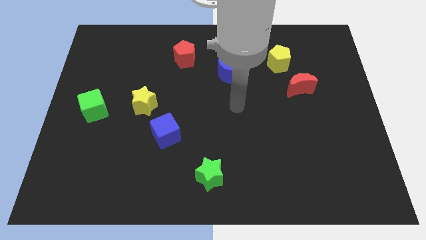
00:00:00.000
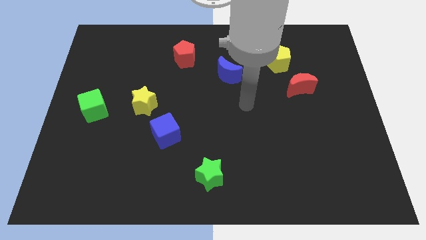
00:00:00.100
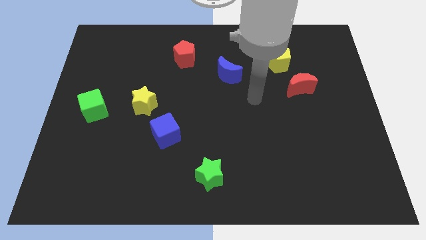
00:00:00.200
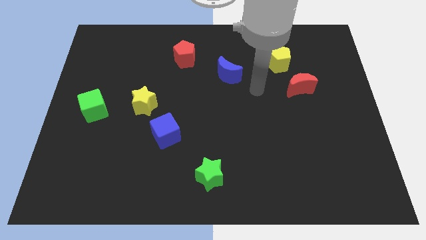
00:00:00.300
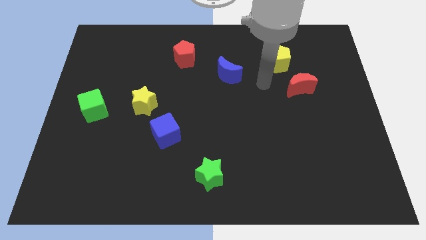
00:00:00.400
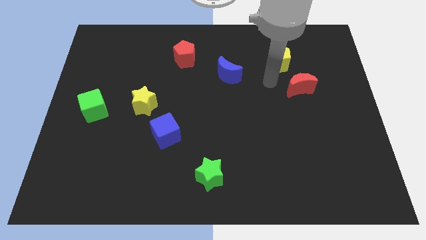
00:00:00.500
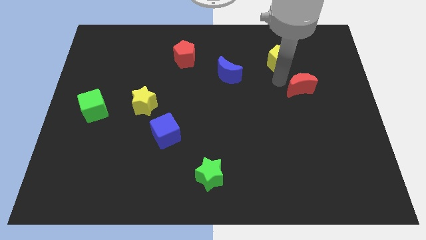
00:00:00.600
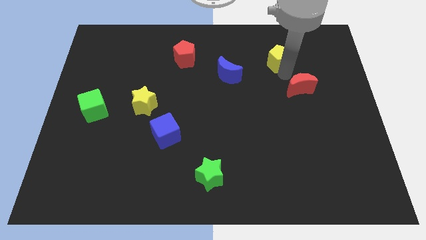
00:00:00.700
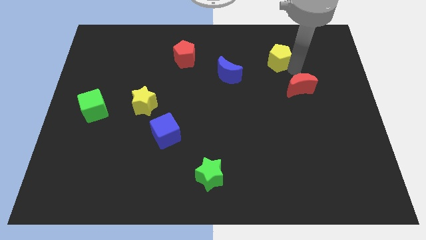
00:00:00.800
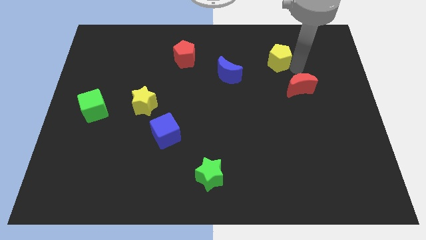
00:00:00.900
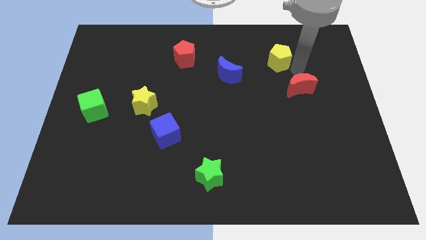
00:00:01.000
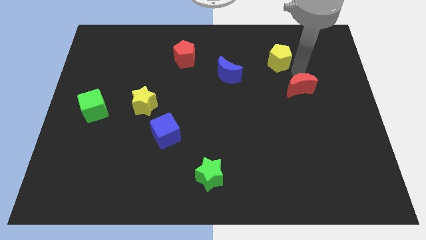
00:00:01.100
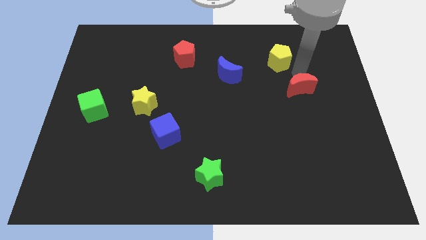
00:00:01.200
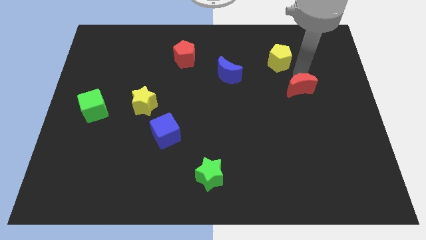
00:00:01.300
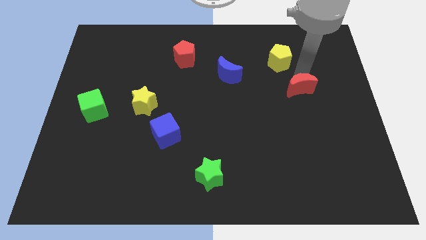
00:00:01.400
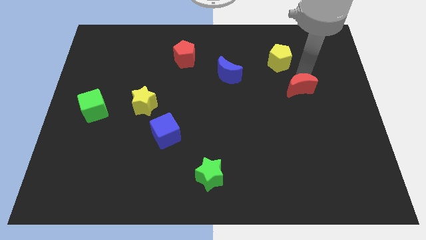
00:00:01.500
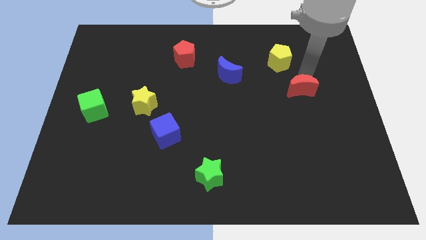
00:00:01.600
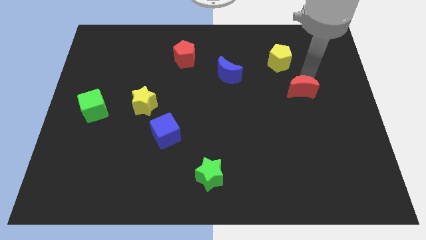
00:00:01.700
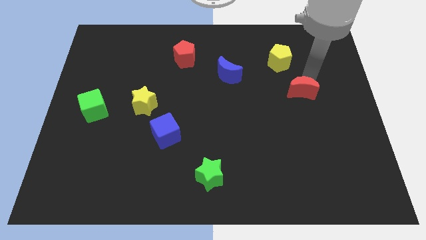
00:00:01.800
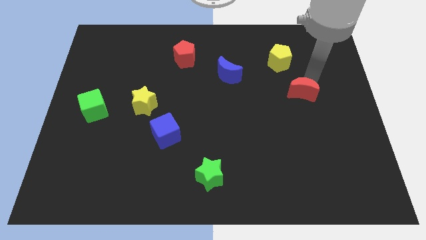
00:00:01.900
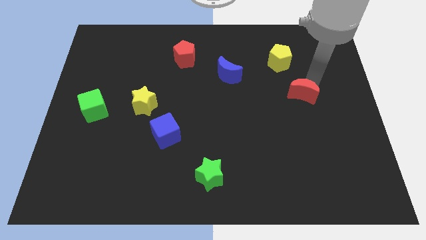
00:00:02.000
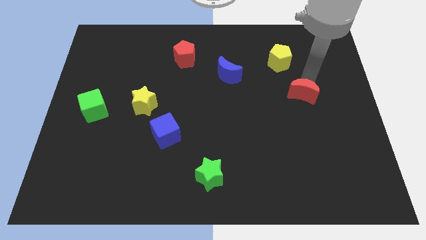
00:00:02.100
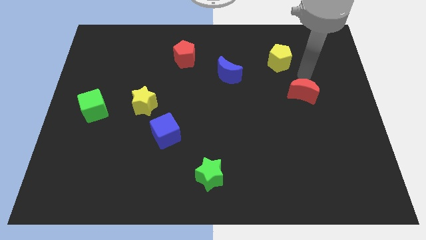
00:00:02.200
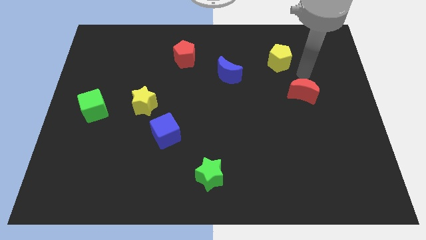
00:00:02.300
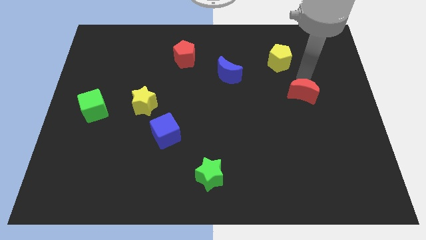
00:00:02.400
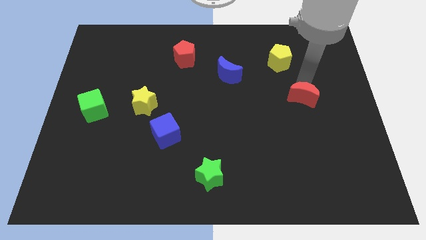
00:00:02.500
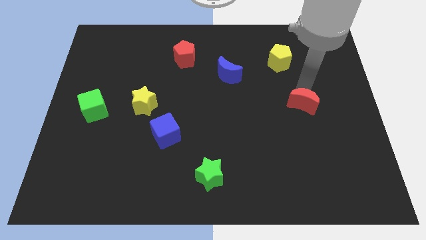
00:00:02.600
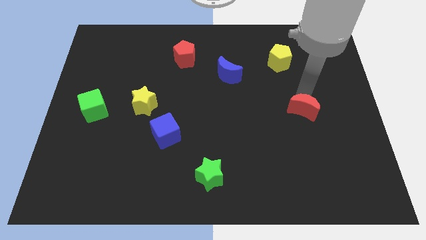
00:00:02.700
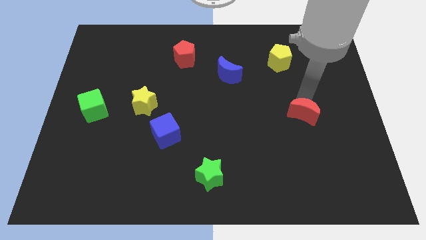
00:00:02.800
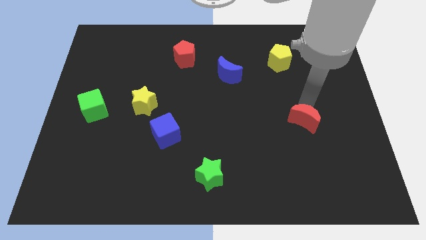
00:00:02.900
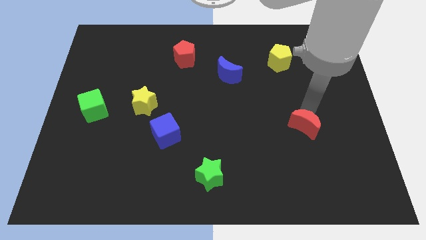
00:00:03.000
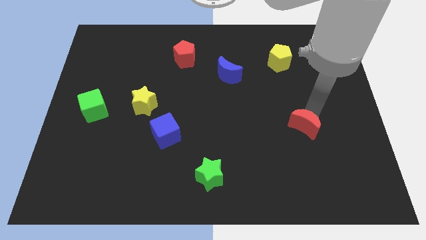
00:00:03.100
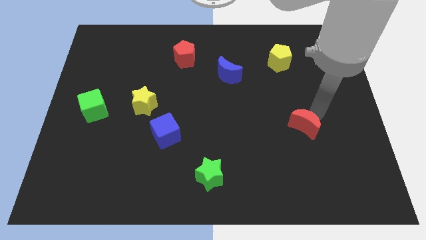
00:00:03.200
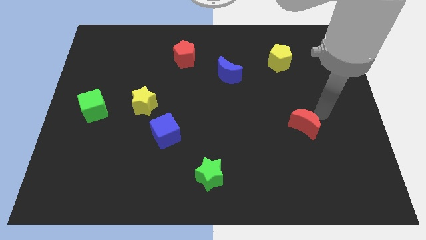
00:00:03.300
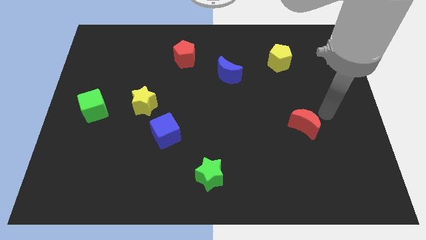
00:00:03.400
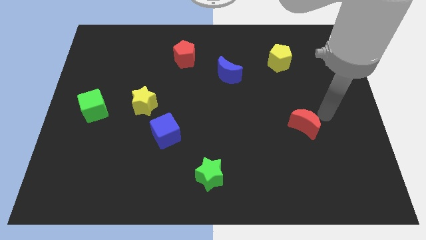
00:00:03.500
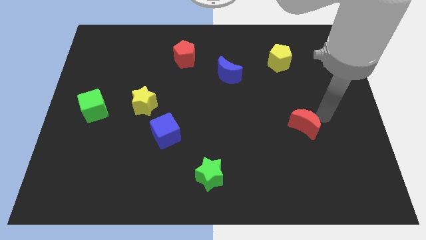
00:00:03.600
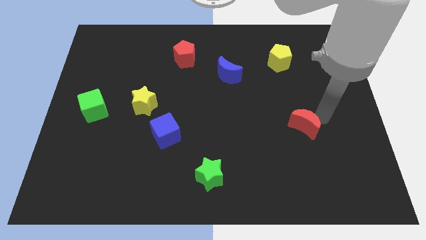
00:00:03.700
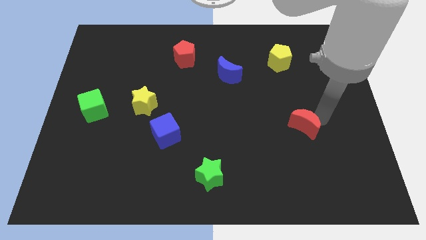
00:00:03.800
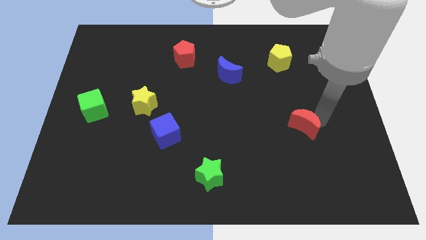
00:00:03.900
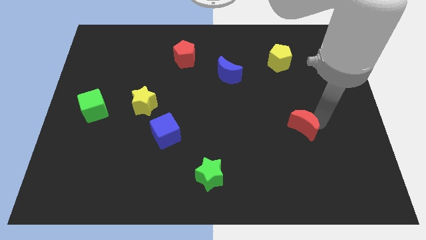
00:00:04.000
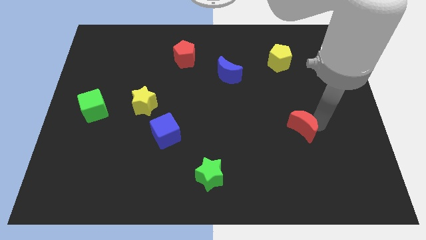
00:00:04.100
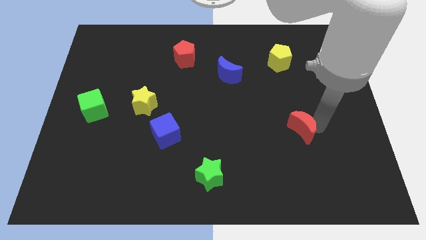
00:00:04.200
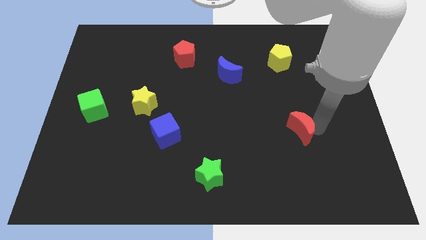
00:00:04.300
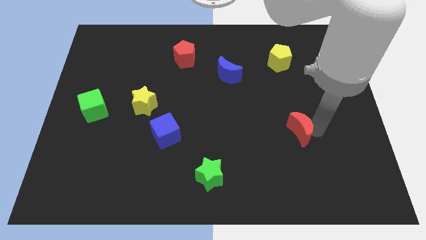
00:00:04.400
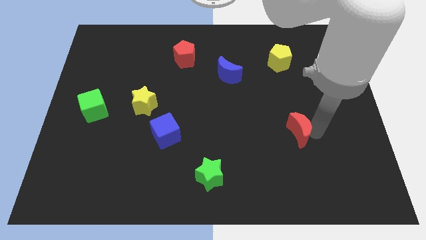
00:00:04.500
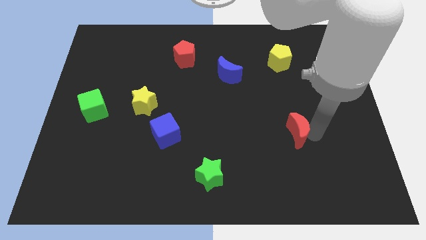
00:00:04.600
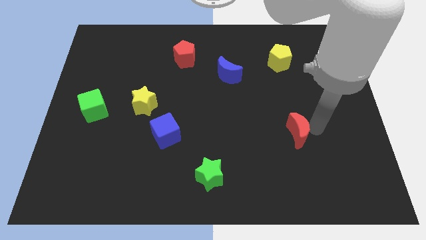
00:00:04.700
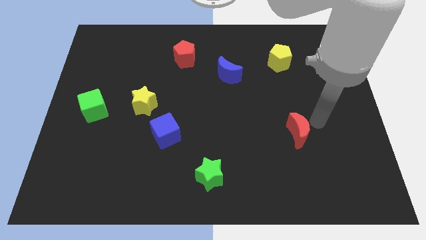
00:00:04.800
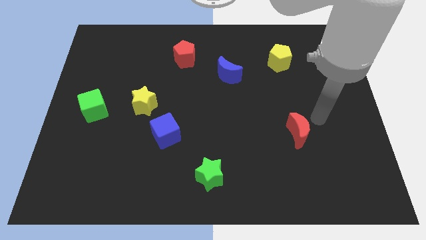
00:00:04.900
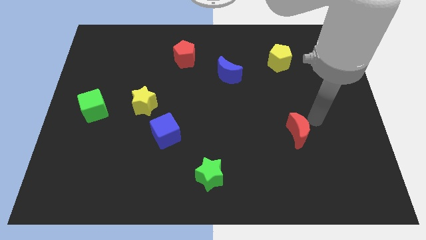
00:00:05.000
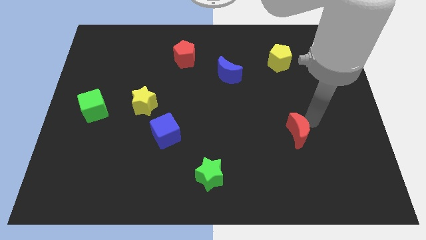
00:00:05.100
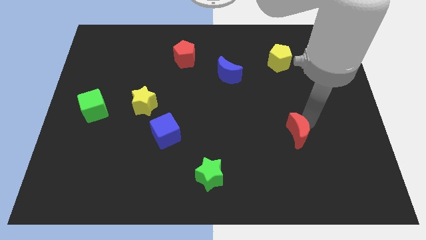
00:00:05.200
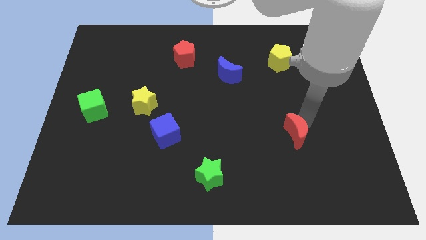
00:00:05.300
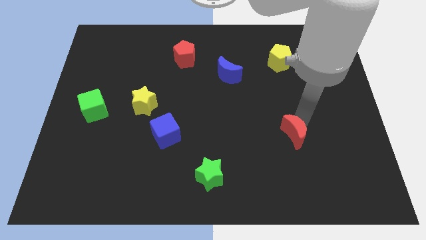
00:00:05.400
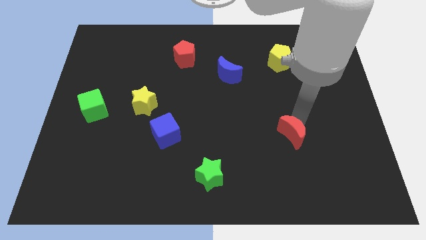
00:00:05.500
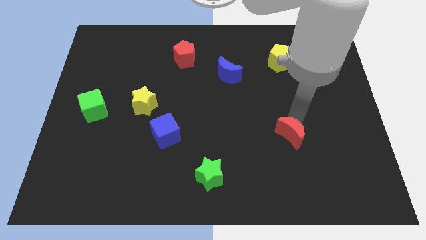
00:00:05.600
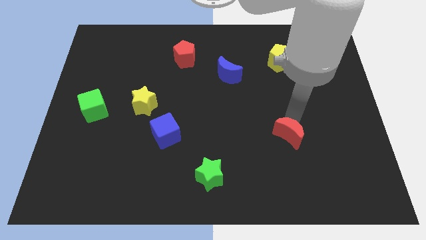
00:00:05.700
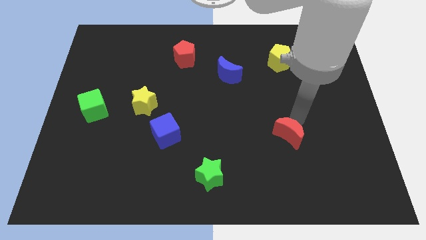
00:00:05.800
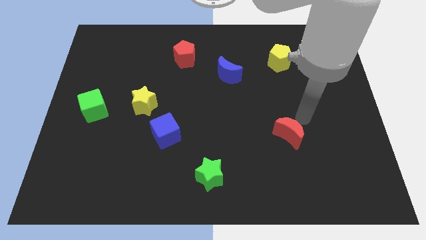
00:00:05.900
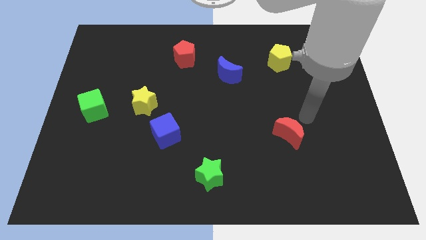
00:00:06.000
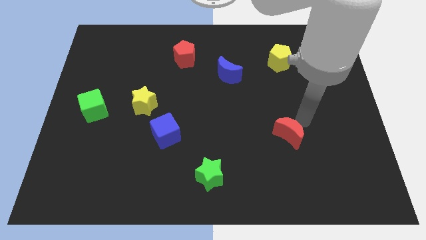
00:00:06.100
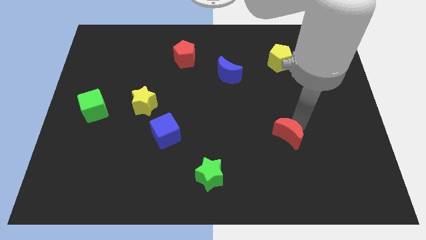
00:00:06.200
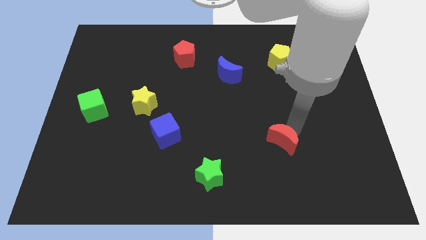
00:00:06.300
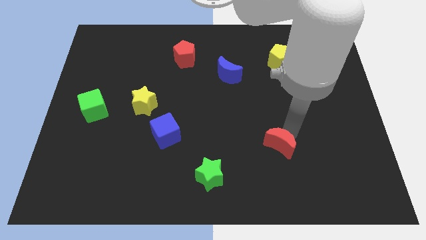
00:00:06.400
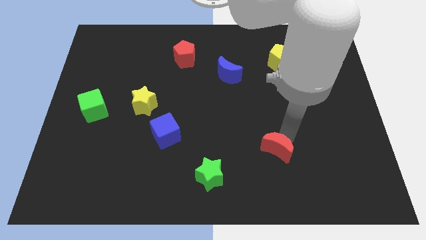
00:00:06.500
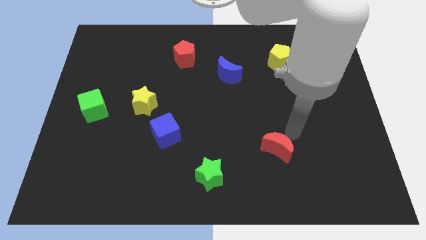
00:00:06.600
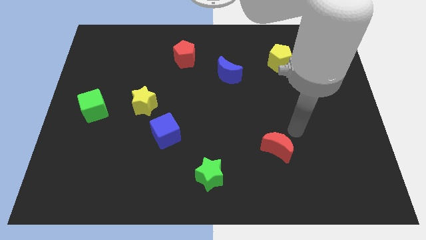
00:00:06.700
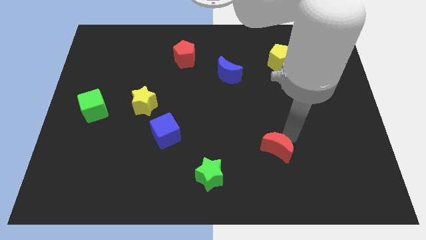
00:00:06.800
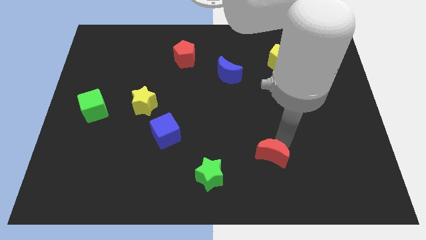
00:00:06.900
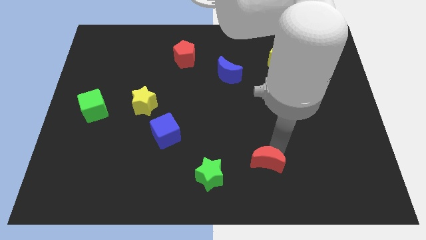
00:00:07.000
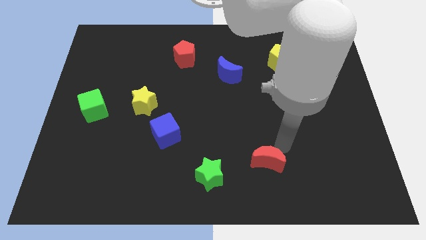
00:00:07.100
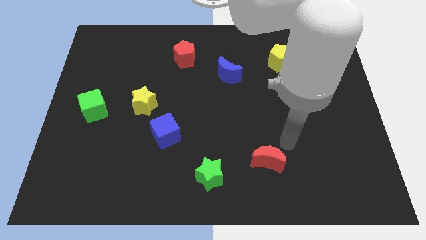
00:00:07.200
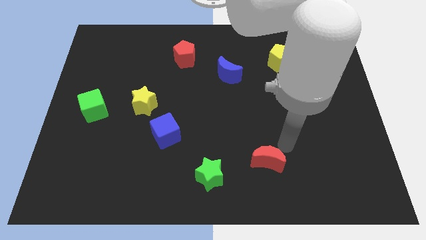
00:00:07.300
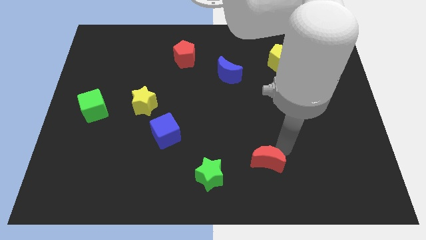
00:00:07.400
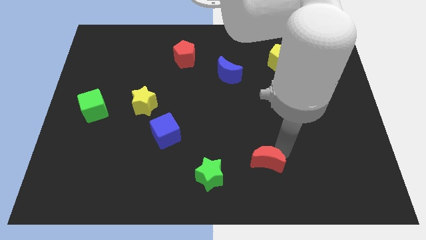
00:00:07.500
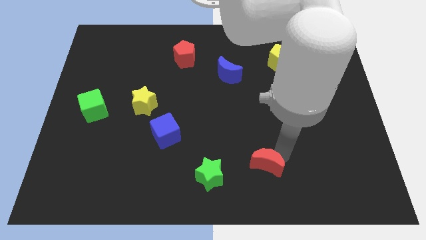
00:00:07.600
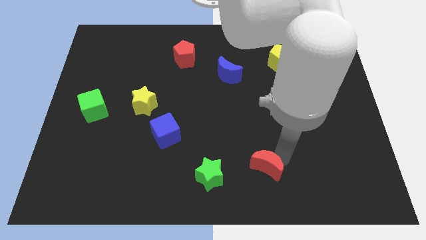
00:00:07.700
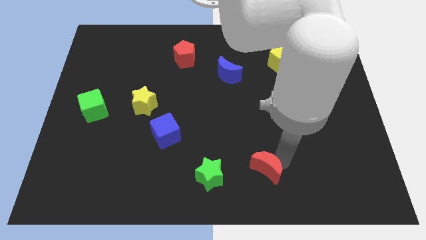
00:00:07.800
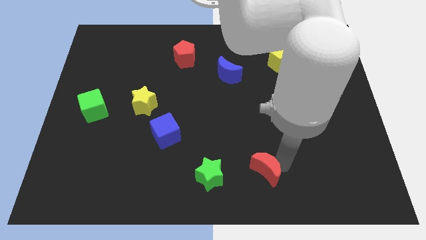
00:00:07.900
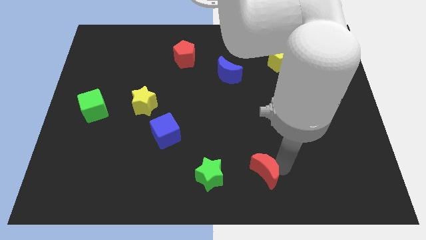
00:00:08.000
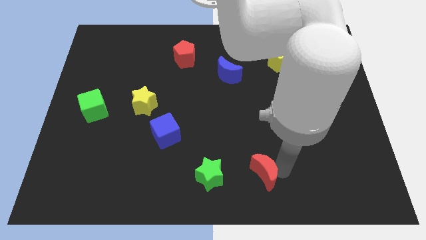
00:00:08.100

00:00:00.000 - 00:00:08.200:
put the red moon to the bottom side
